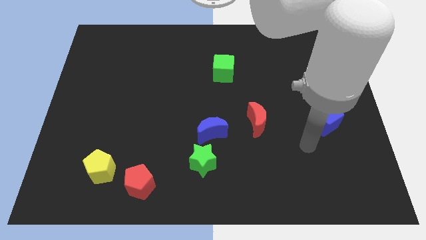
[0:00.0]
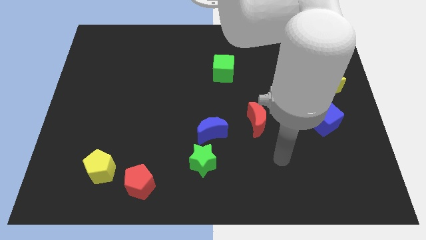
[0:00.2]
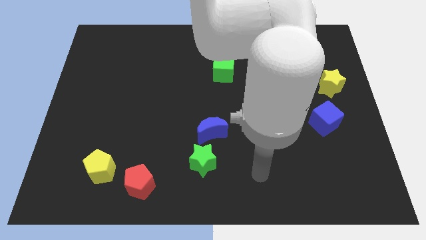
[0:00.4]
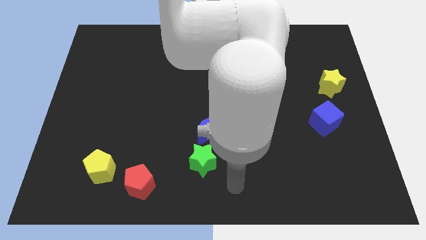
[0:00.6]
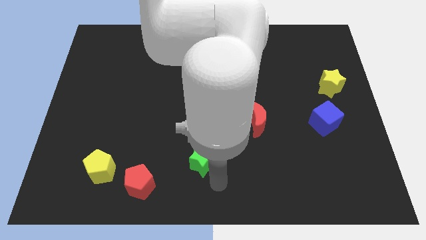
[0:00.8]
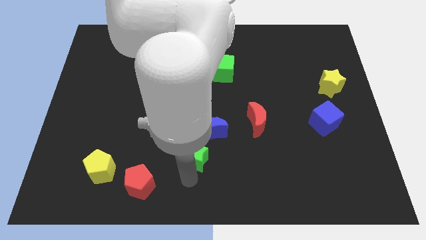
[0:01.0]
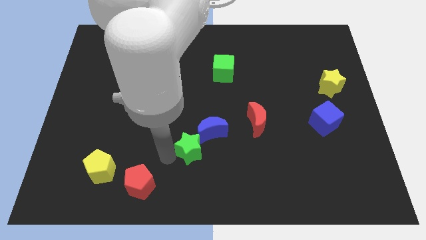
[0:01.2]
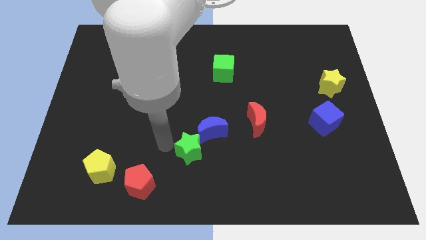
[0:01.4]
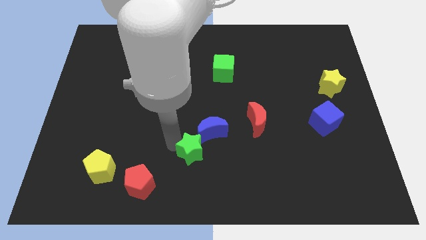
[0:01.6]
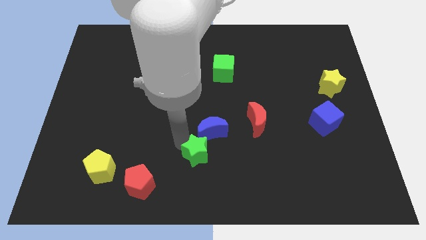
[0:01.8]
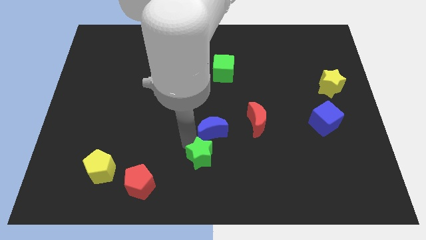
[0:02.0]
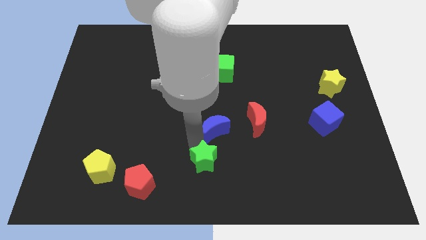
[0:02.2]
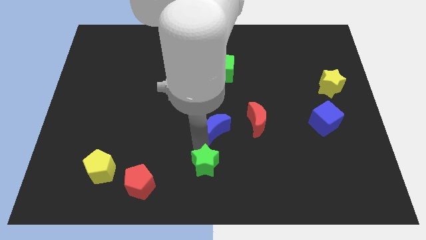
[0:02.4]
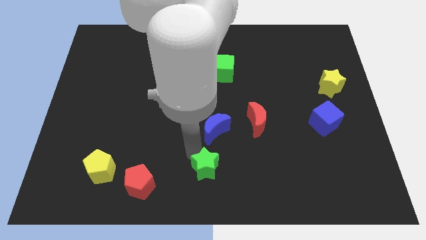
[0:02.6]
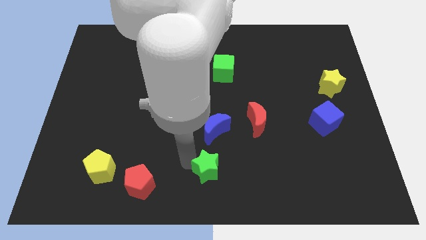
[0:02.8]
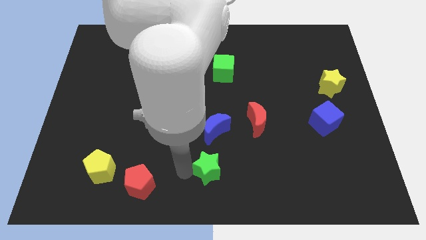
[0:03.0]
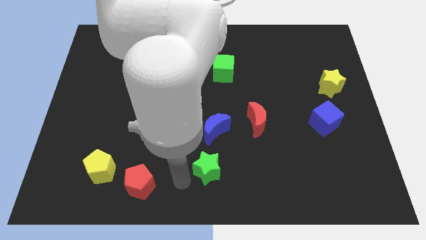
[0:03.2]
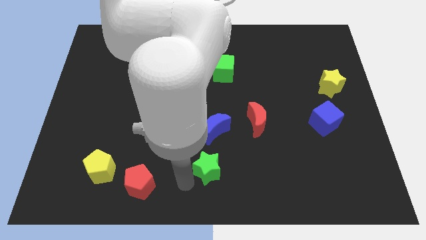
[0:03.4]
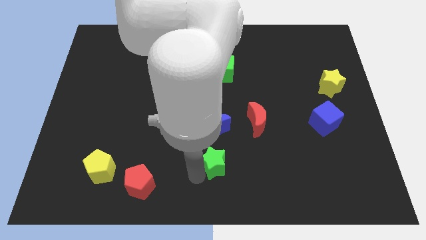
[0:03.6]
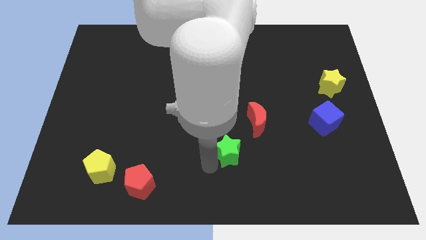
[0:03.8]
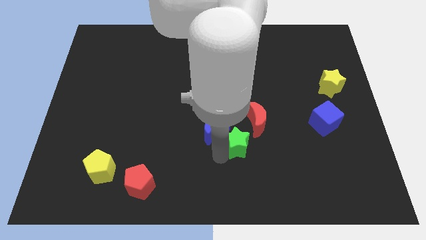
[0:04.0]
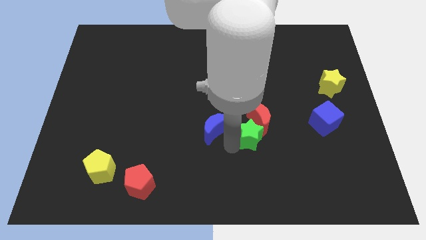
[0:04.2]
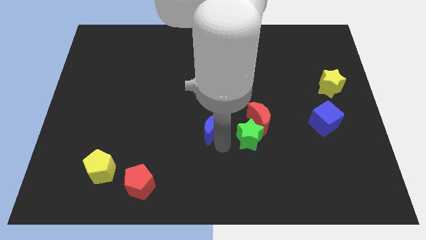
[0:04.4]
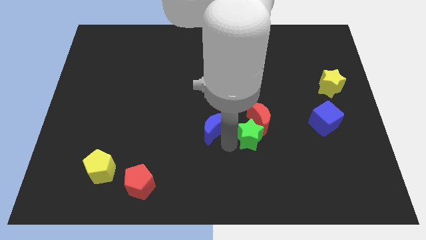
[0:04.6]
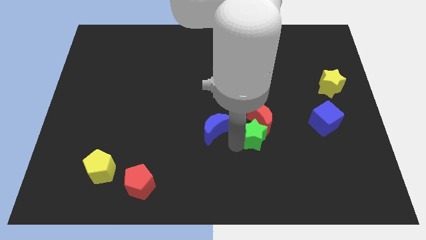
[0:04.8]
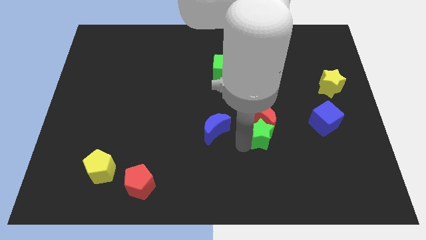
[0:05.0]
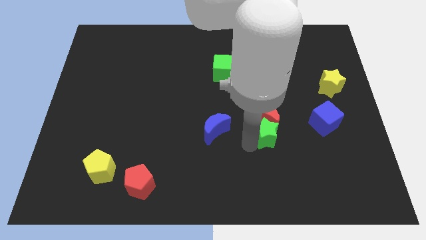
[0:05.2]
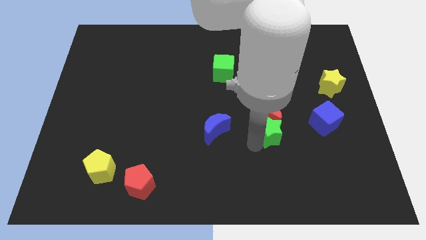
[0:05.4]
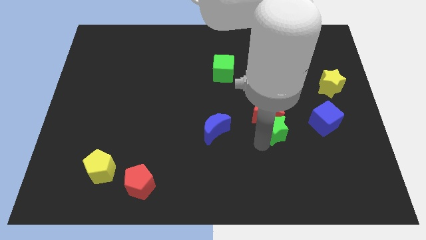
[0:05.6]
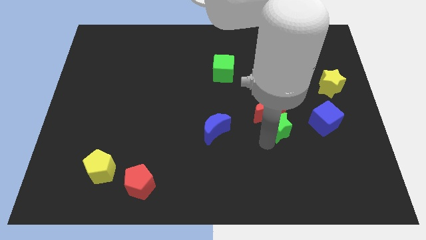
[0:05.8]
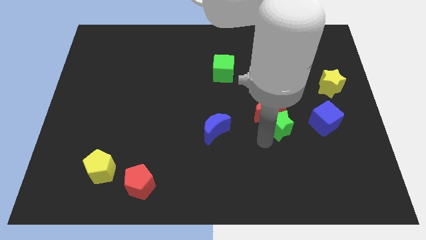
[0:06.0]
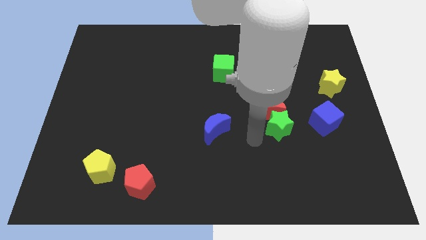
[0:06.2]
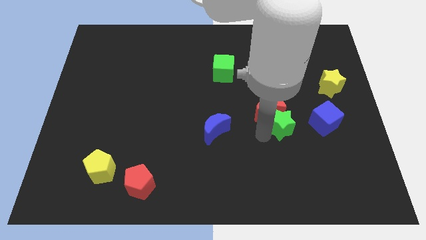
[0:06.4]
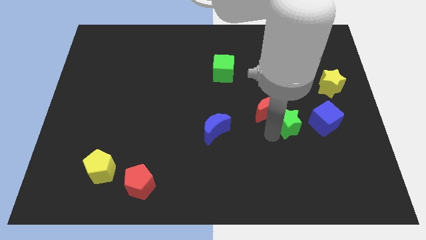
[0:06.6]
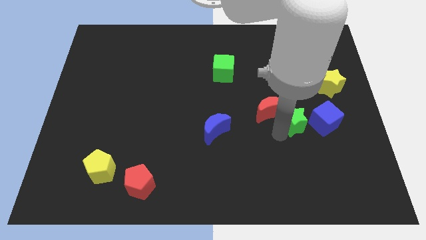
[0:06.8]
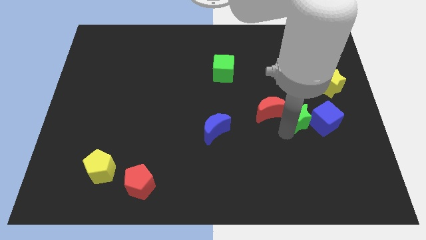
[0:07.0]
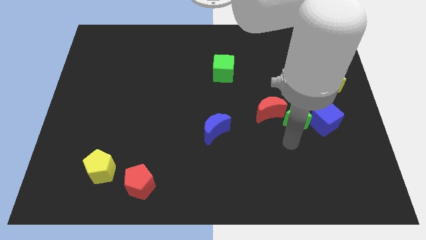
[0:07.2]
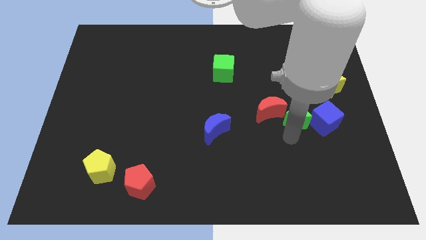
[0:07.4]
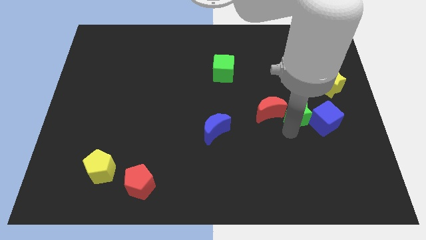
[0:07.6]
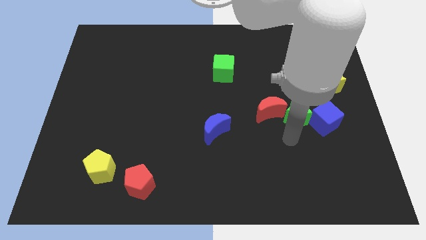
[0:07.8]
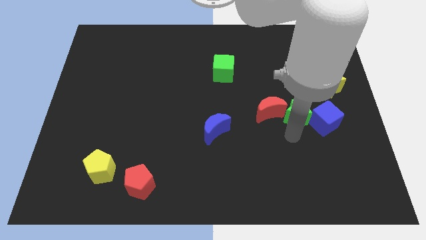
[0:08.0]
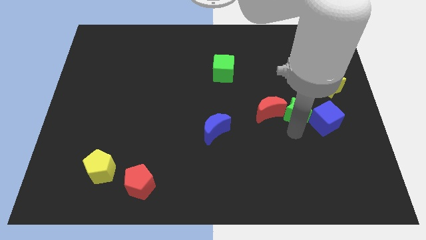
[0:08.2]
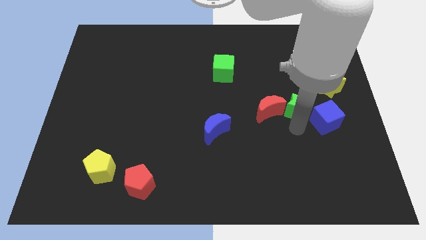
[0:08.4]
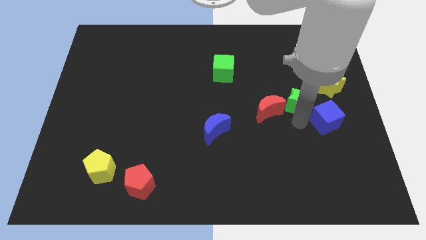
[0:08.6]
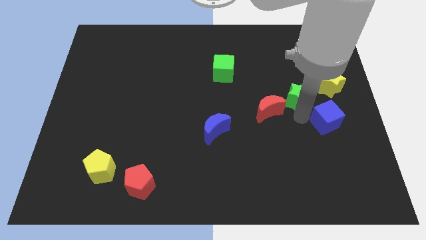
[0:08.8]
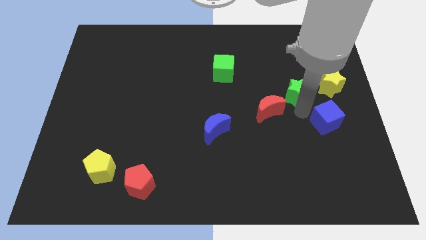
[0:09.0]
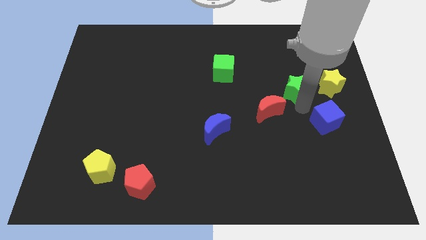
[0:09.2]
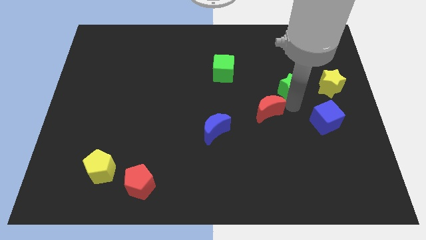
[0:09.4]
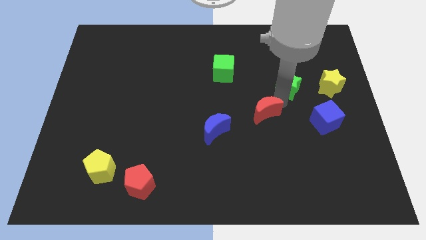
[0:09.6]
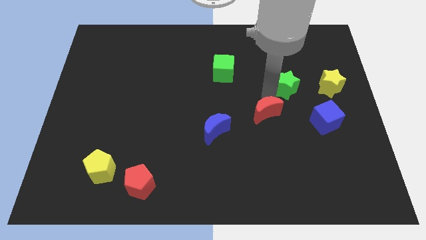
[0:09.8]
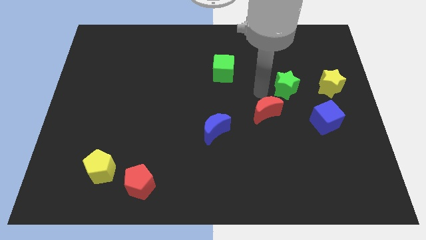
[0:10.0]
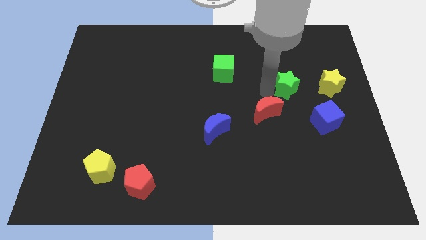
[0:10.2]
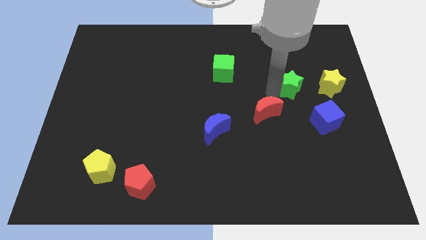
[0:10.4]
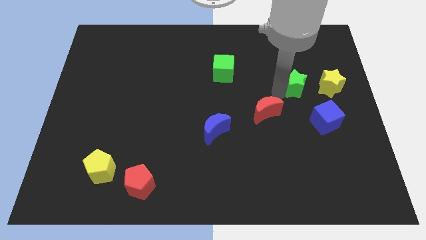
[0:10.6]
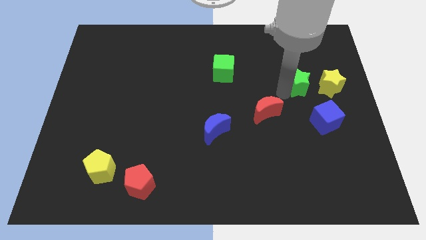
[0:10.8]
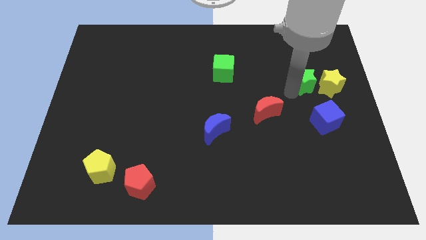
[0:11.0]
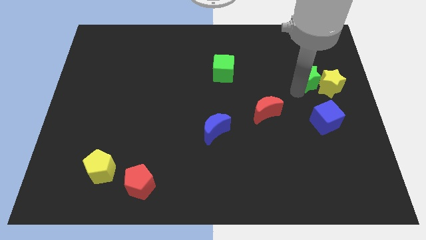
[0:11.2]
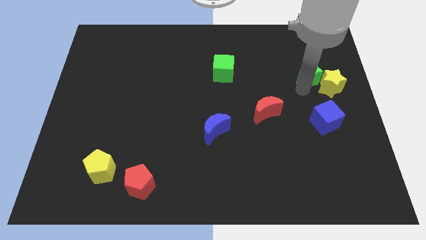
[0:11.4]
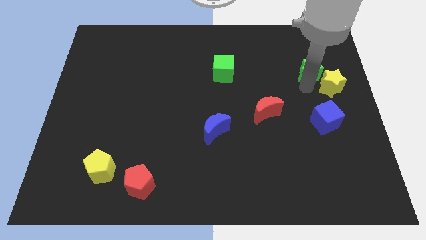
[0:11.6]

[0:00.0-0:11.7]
push the green star to the top of the yellow star

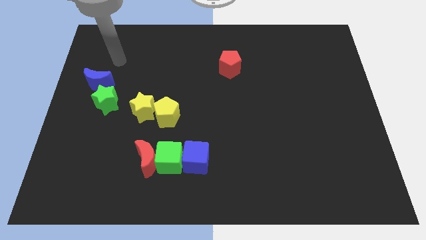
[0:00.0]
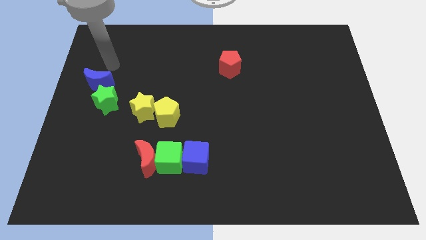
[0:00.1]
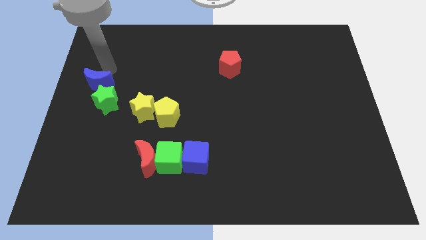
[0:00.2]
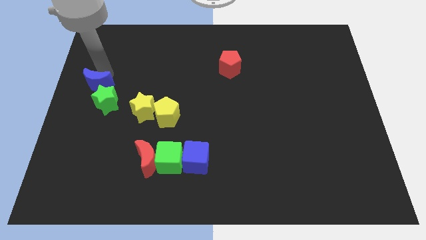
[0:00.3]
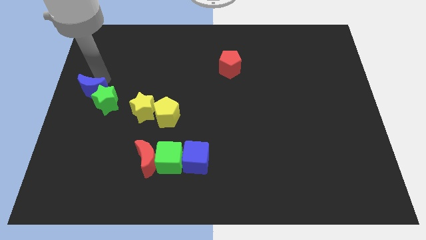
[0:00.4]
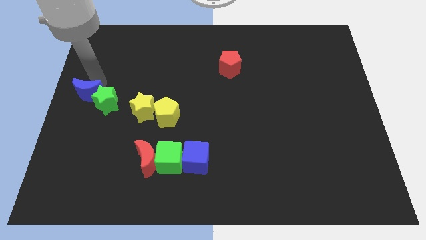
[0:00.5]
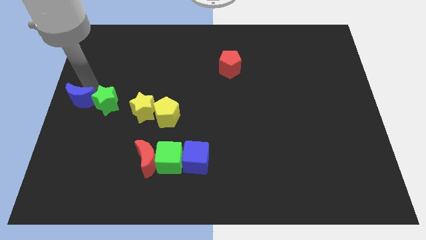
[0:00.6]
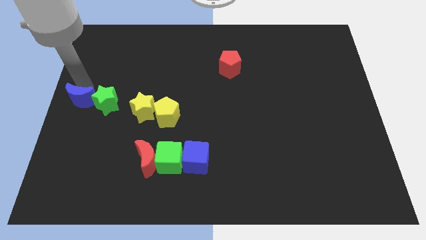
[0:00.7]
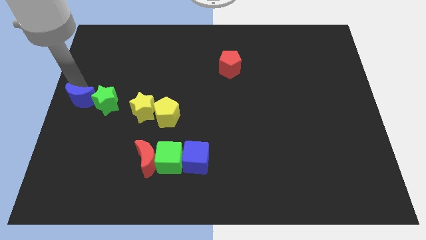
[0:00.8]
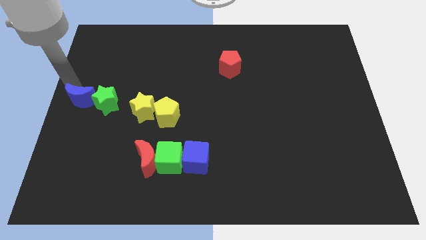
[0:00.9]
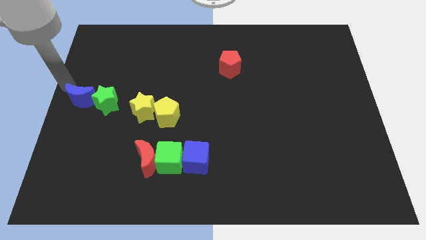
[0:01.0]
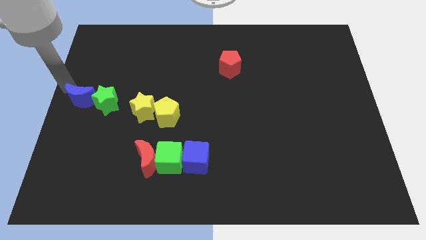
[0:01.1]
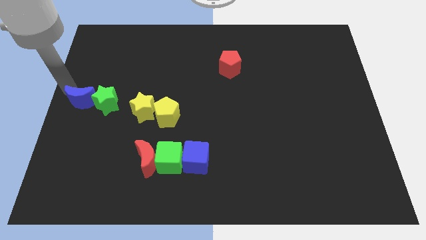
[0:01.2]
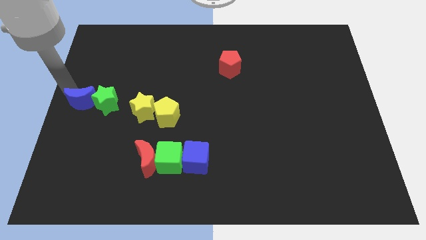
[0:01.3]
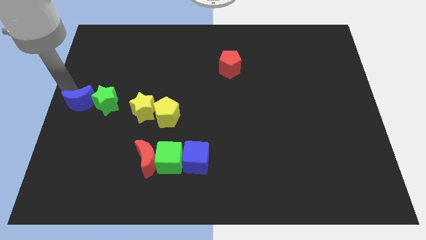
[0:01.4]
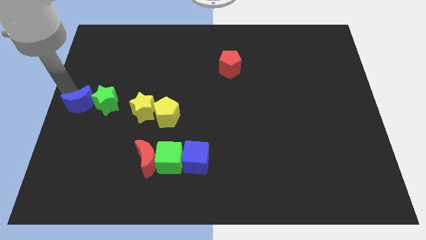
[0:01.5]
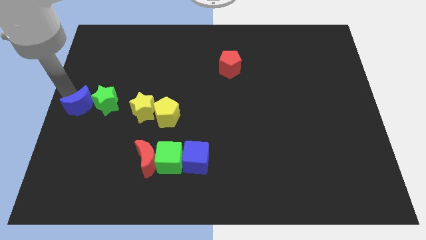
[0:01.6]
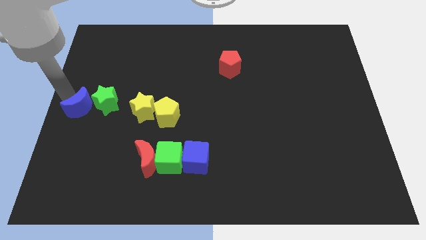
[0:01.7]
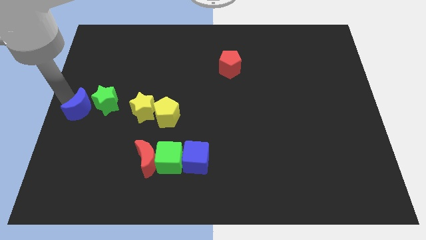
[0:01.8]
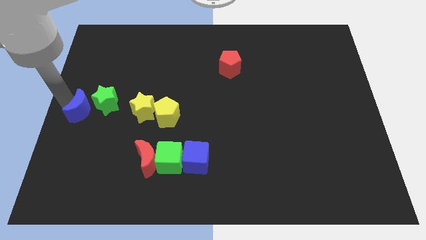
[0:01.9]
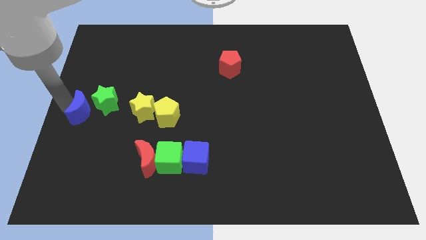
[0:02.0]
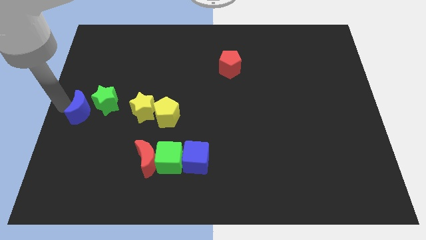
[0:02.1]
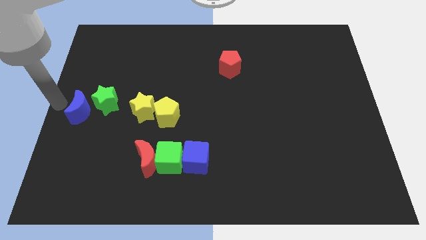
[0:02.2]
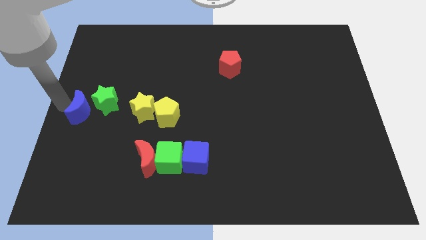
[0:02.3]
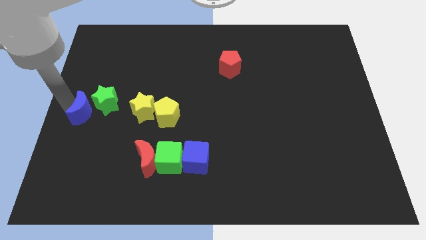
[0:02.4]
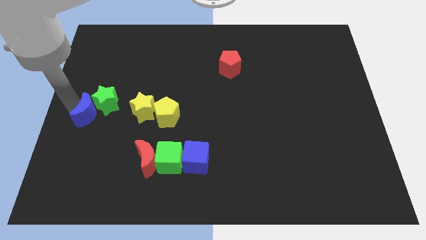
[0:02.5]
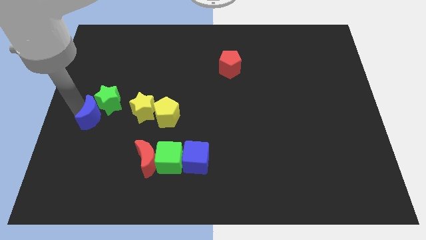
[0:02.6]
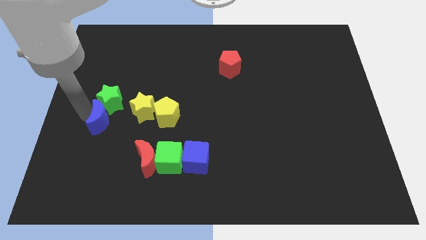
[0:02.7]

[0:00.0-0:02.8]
put the blue moon diagonally down and to the right of the green star
